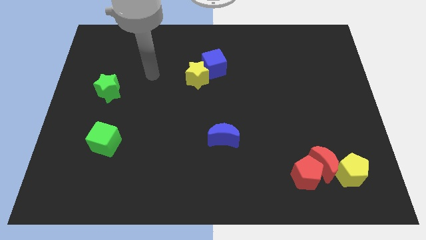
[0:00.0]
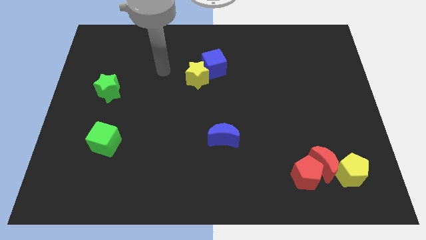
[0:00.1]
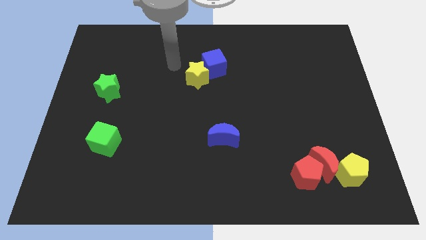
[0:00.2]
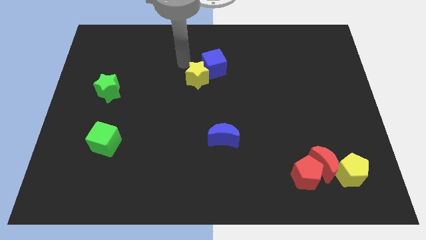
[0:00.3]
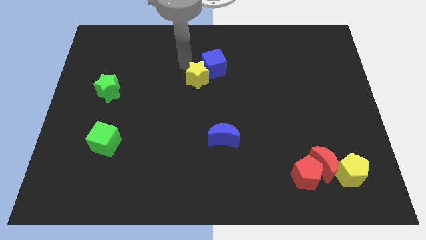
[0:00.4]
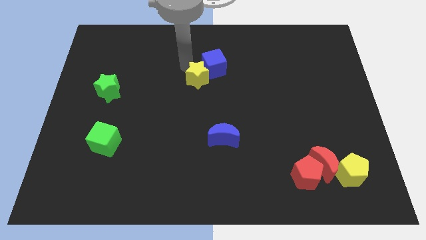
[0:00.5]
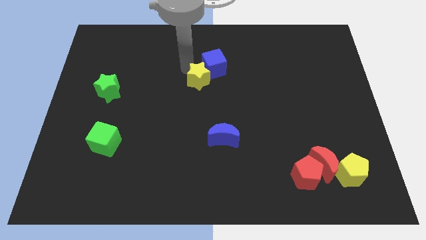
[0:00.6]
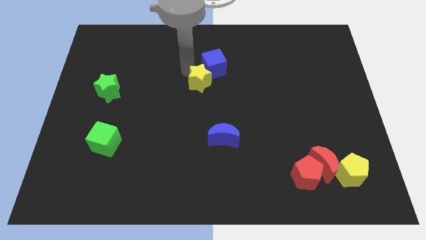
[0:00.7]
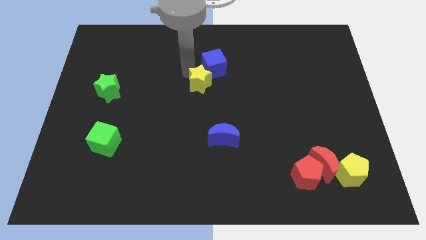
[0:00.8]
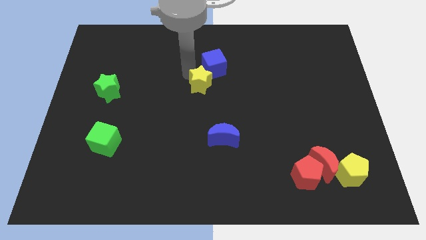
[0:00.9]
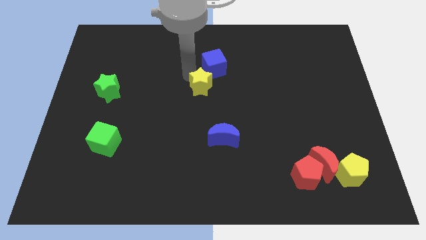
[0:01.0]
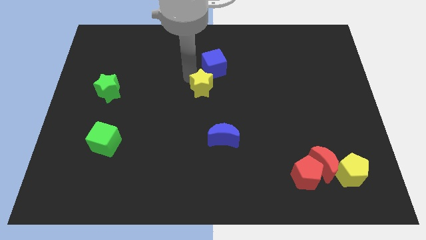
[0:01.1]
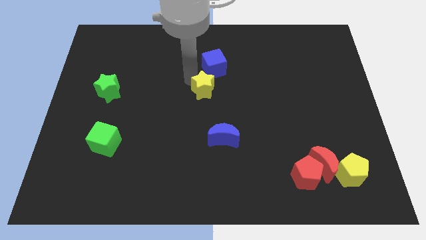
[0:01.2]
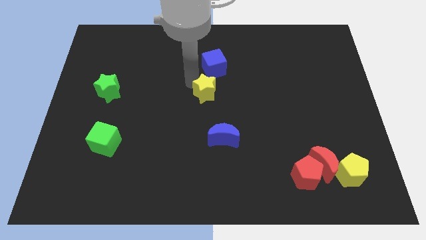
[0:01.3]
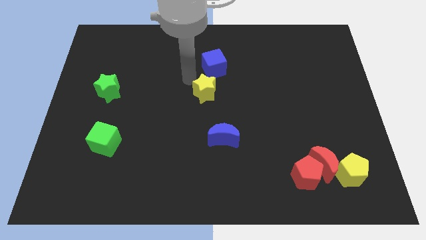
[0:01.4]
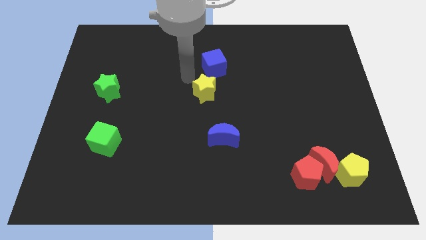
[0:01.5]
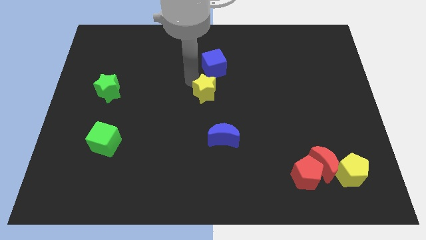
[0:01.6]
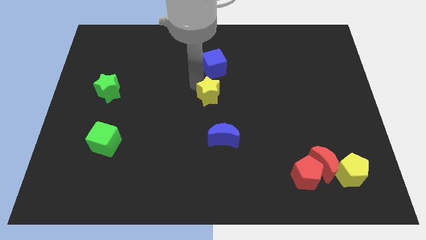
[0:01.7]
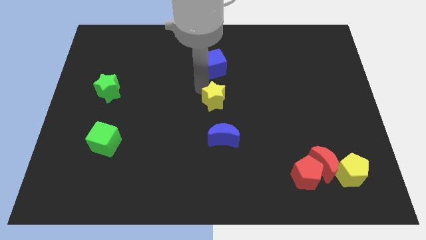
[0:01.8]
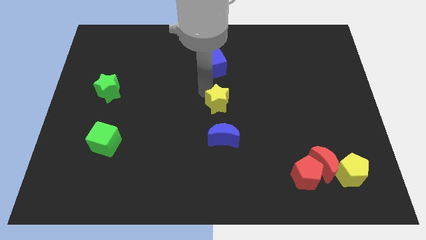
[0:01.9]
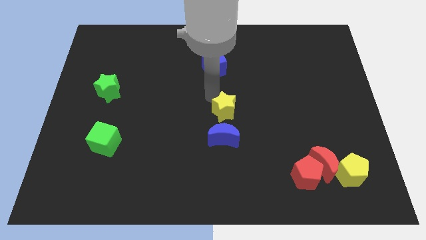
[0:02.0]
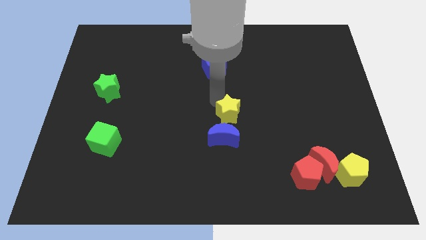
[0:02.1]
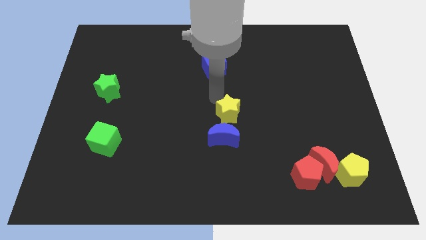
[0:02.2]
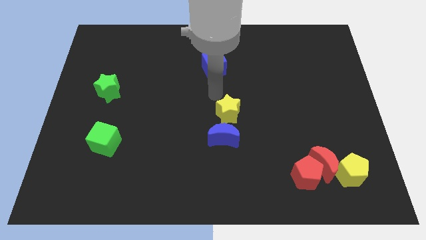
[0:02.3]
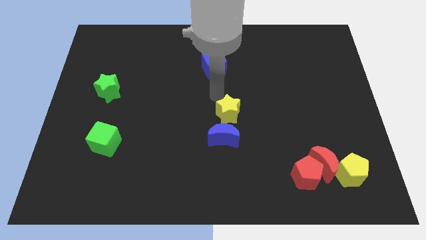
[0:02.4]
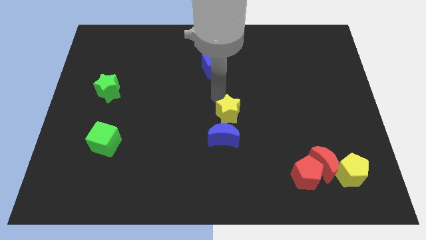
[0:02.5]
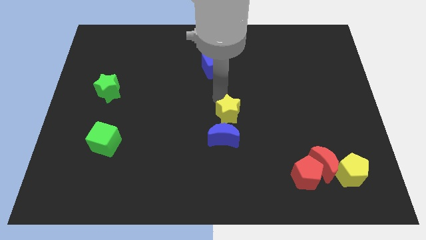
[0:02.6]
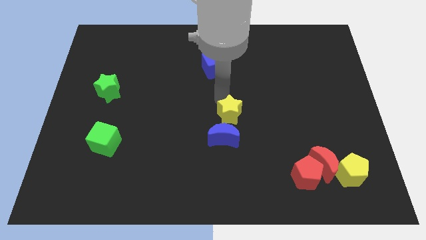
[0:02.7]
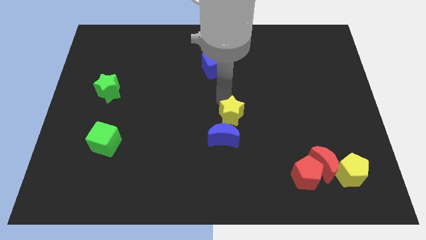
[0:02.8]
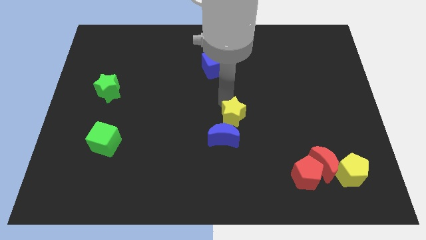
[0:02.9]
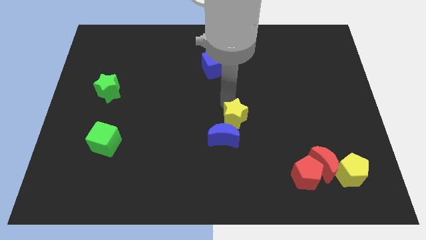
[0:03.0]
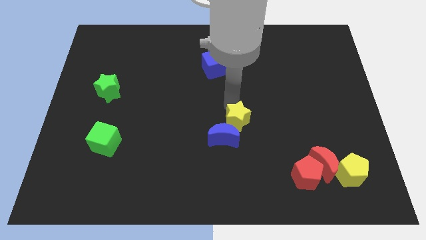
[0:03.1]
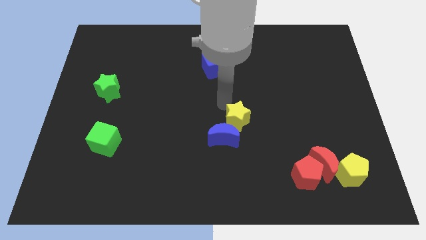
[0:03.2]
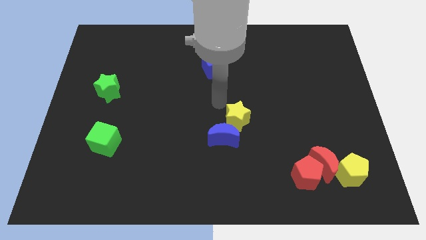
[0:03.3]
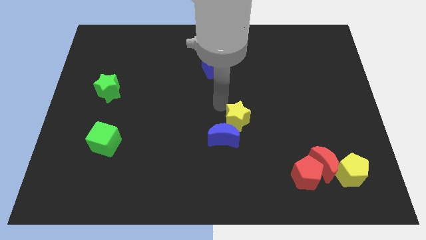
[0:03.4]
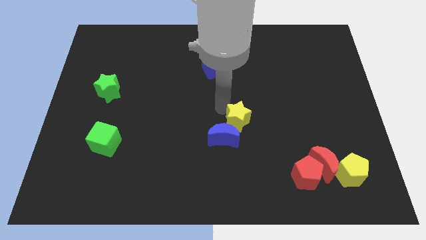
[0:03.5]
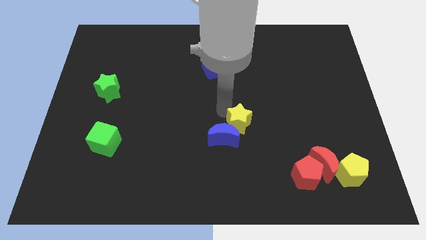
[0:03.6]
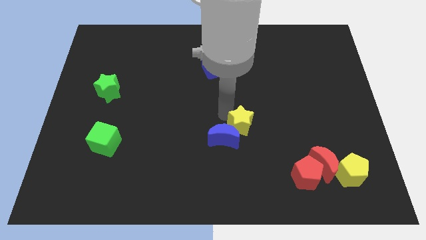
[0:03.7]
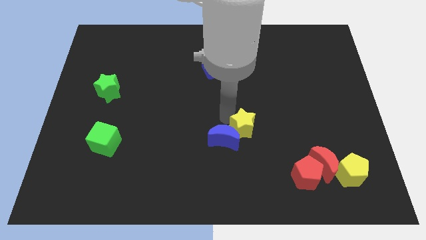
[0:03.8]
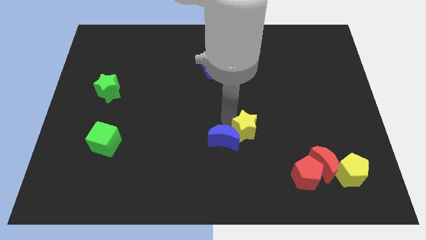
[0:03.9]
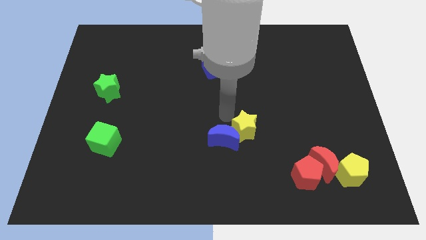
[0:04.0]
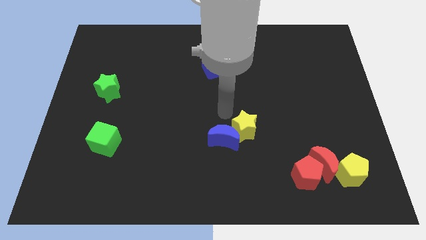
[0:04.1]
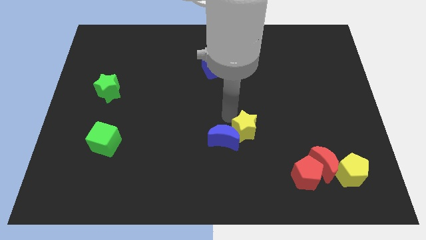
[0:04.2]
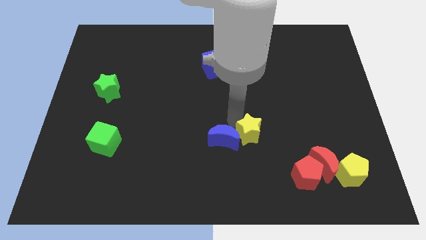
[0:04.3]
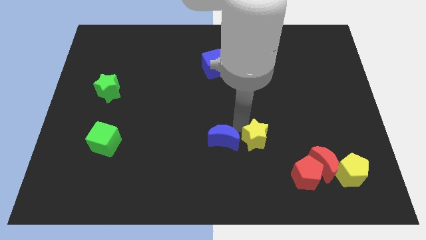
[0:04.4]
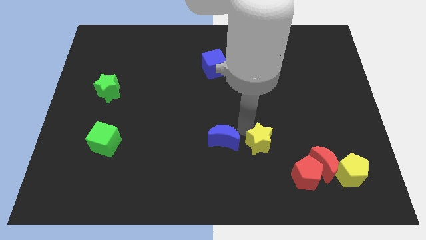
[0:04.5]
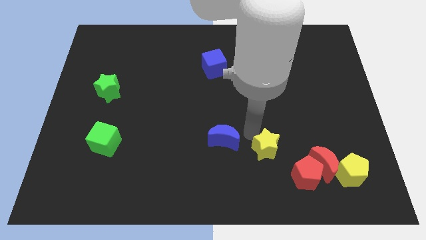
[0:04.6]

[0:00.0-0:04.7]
slide the yellow star just left of the red moon

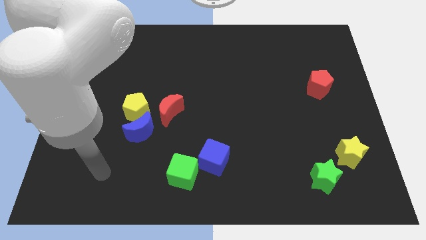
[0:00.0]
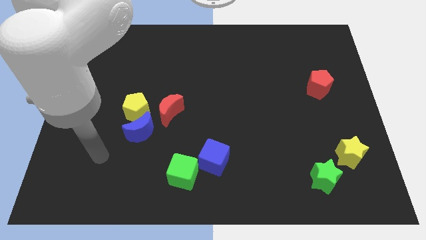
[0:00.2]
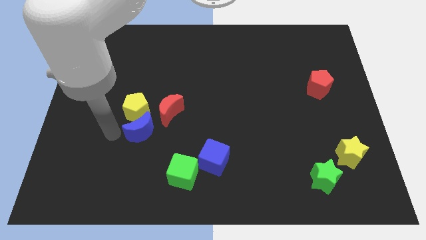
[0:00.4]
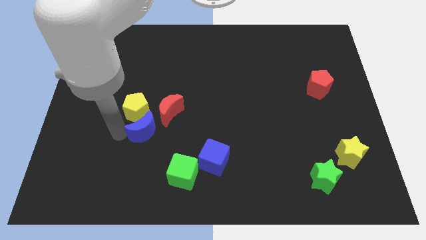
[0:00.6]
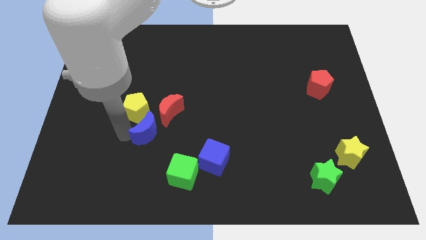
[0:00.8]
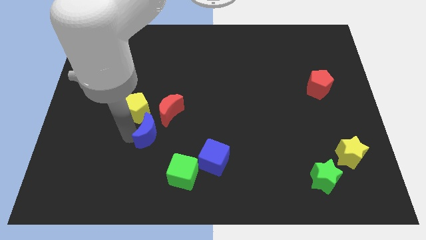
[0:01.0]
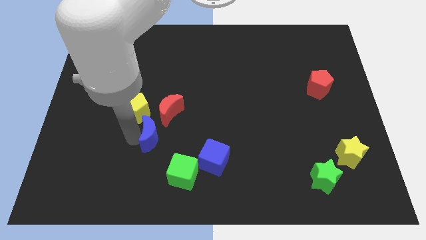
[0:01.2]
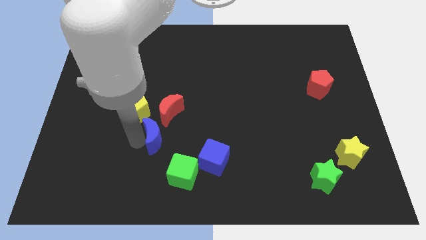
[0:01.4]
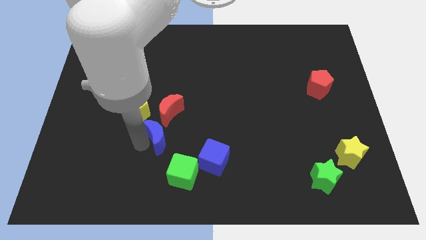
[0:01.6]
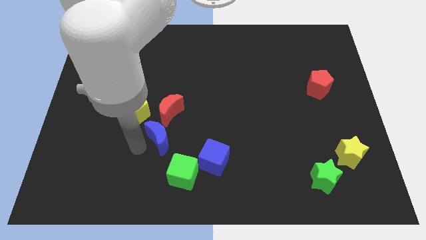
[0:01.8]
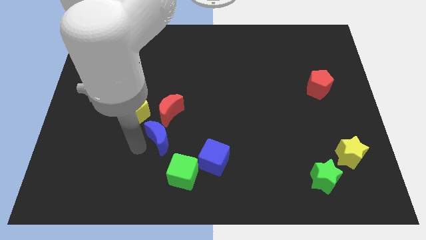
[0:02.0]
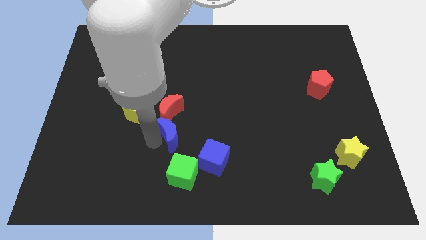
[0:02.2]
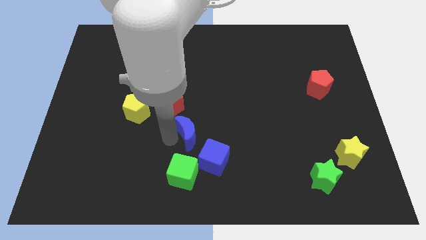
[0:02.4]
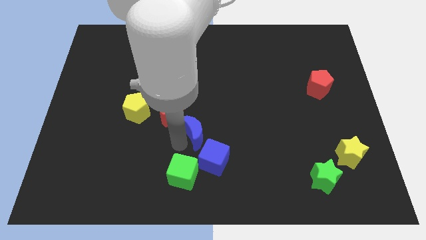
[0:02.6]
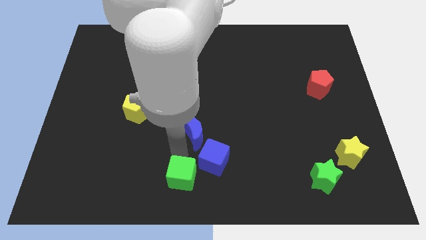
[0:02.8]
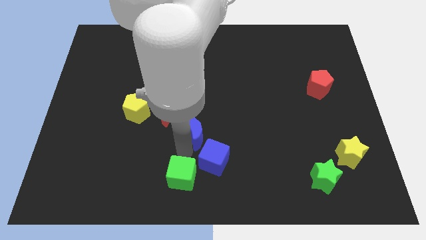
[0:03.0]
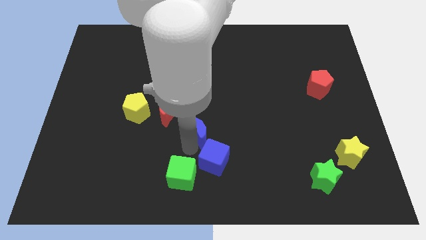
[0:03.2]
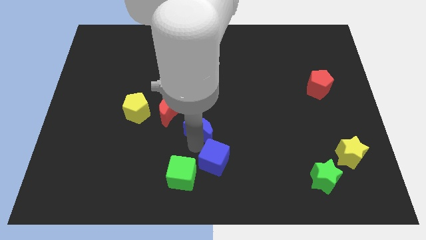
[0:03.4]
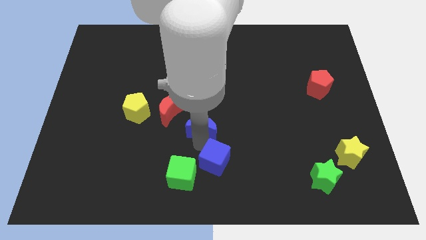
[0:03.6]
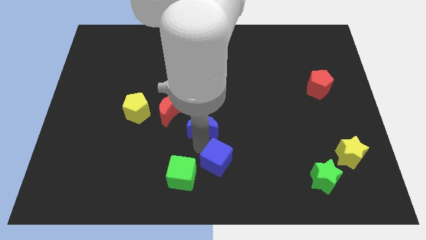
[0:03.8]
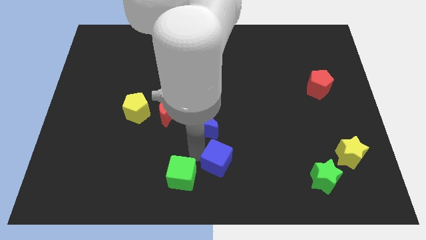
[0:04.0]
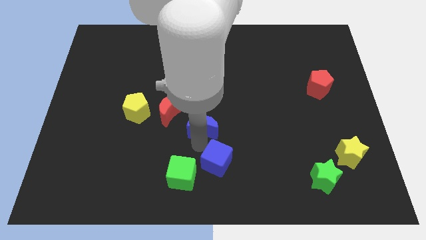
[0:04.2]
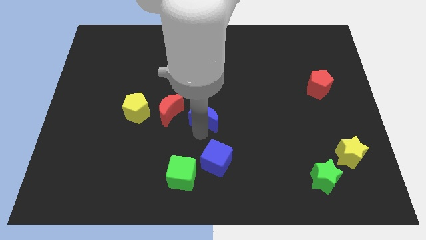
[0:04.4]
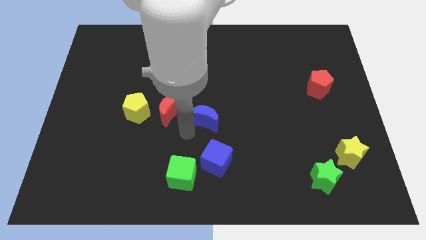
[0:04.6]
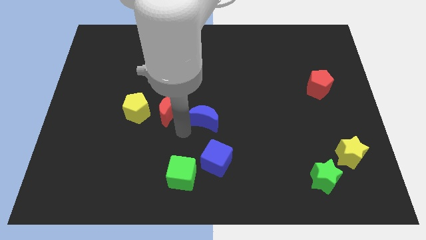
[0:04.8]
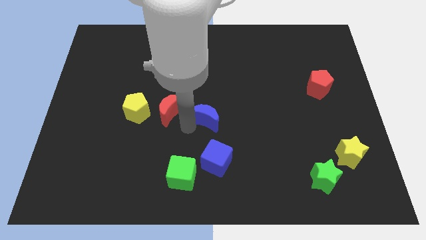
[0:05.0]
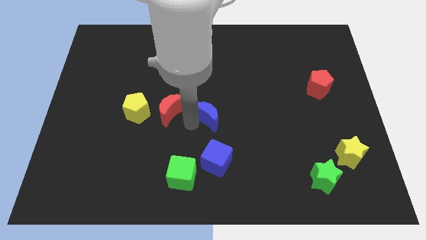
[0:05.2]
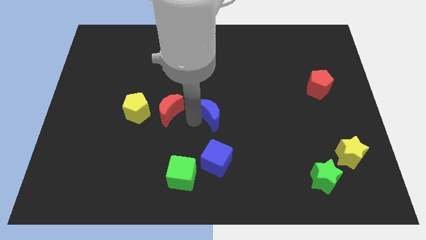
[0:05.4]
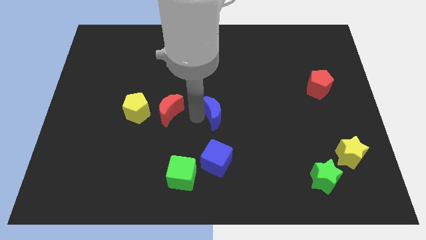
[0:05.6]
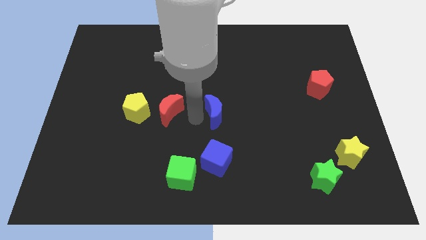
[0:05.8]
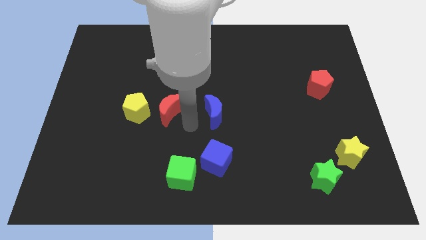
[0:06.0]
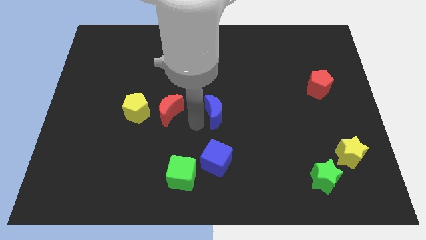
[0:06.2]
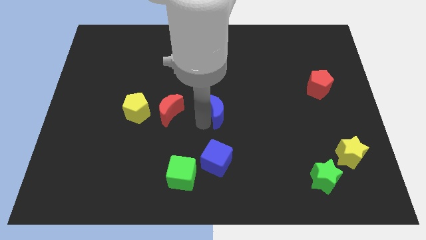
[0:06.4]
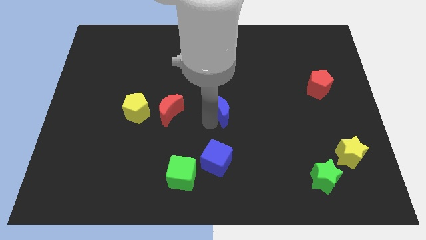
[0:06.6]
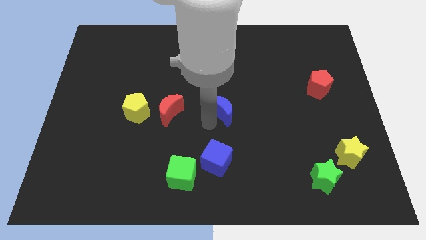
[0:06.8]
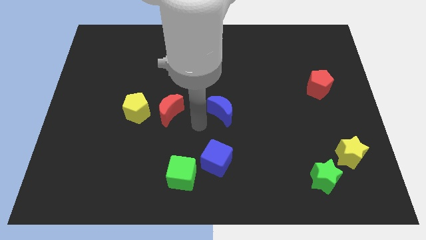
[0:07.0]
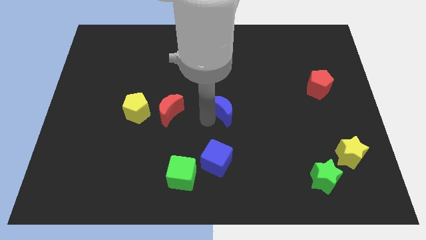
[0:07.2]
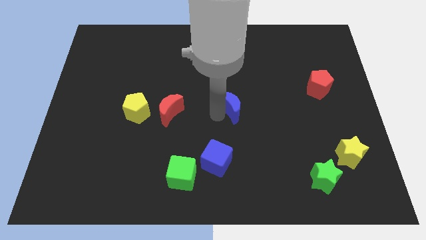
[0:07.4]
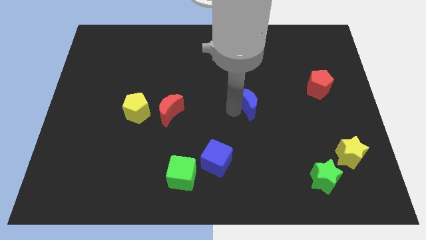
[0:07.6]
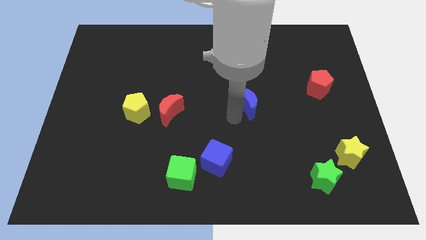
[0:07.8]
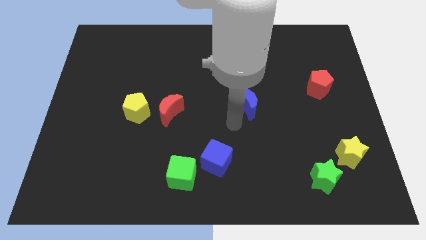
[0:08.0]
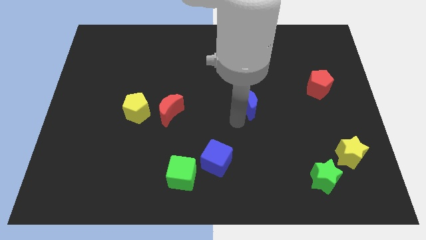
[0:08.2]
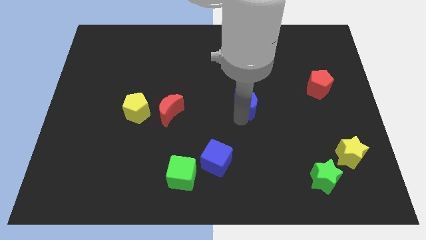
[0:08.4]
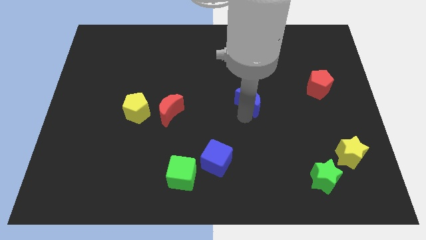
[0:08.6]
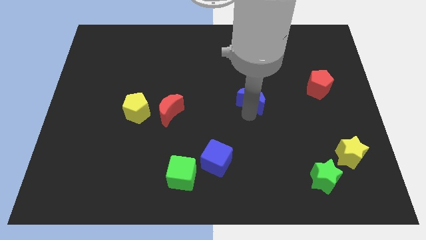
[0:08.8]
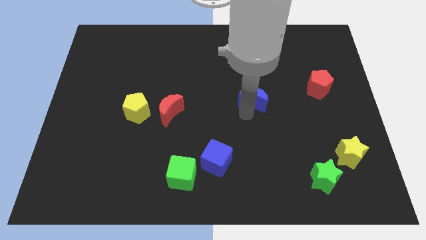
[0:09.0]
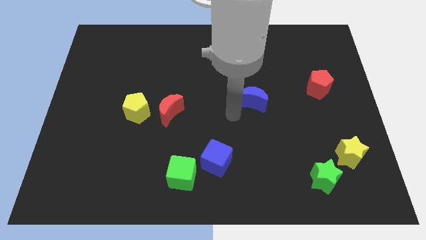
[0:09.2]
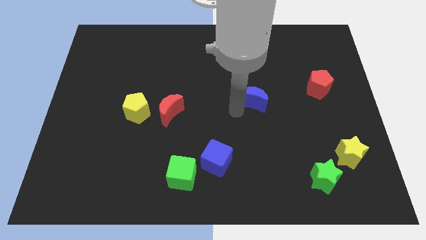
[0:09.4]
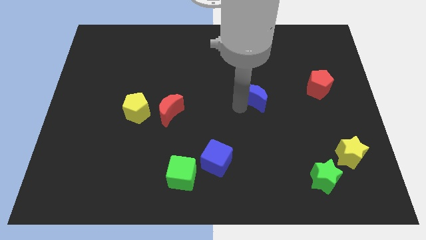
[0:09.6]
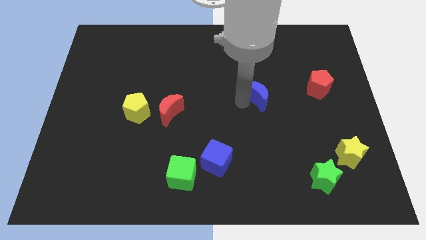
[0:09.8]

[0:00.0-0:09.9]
put the blue moon left of the red pentagon
